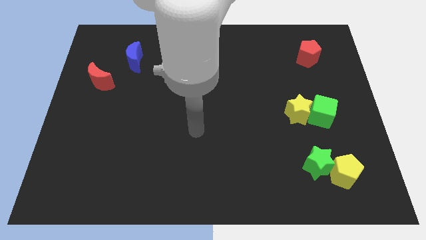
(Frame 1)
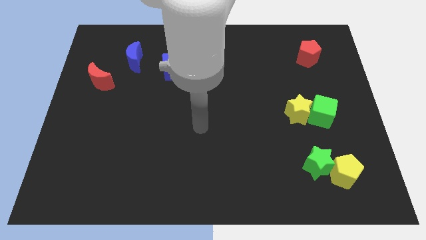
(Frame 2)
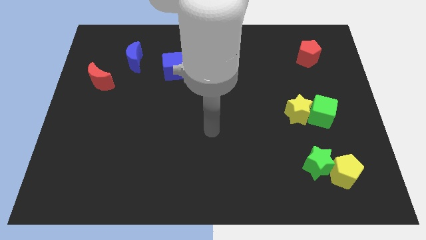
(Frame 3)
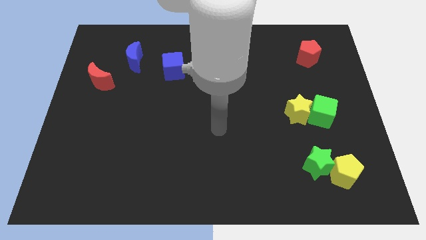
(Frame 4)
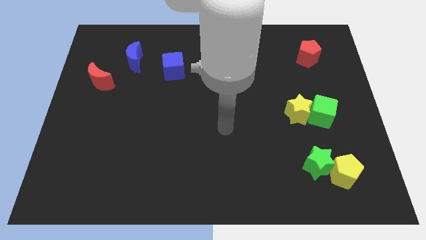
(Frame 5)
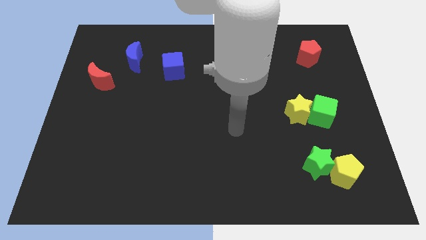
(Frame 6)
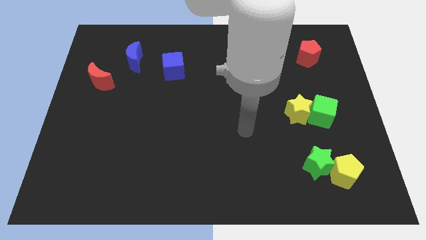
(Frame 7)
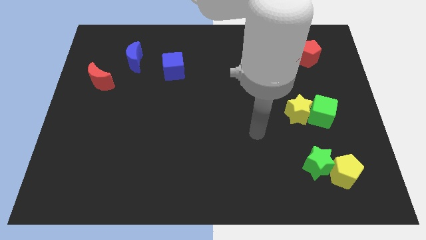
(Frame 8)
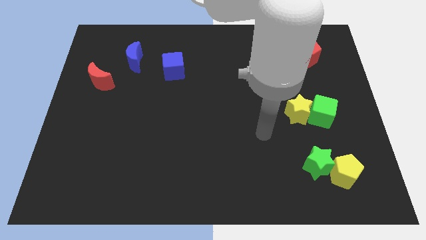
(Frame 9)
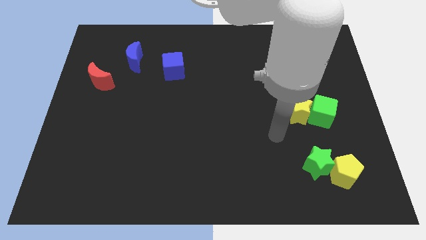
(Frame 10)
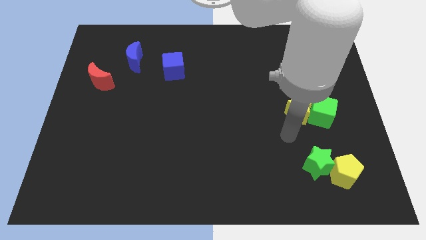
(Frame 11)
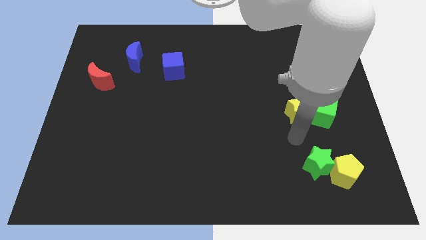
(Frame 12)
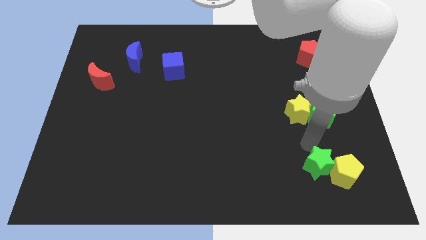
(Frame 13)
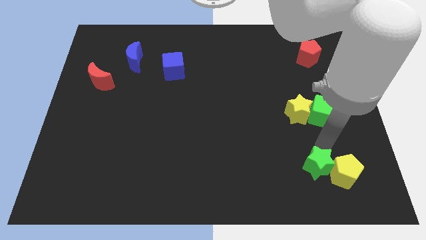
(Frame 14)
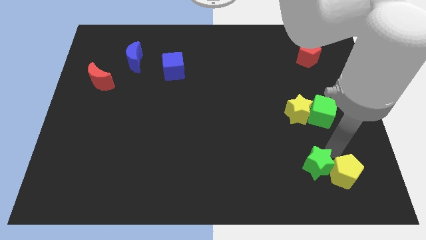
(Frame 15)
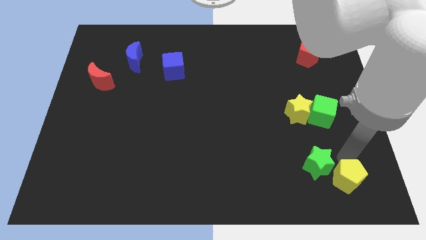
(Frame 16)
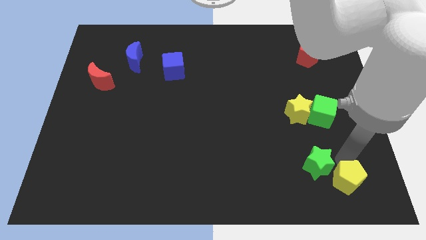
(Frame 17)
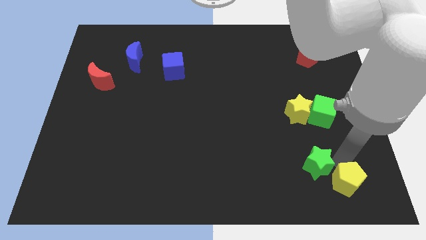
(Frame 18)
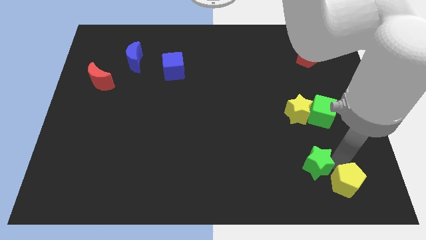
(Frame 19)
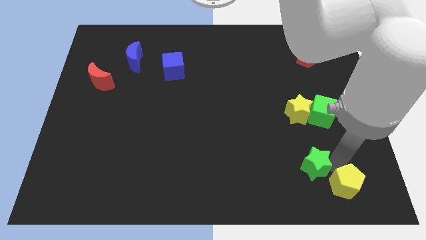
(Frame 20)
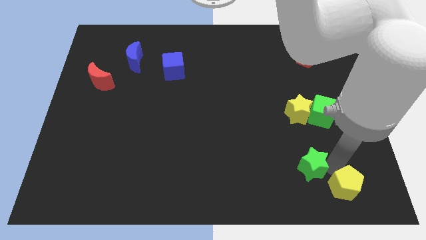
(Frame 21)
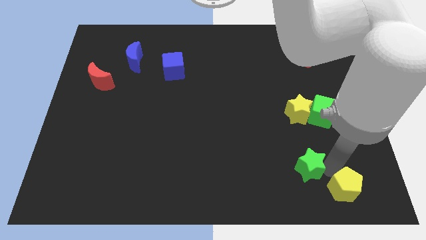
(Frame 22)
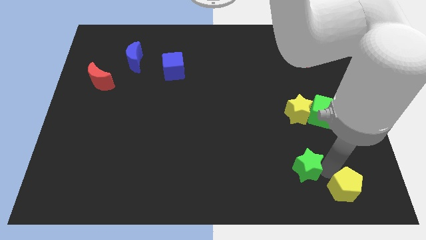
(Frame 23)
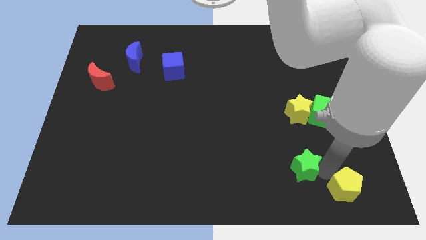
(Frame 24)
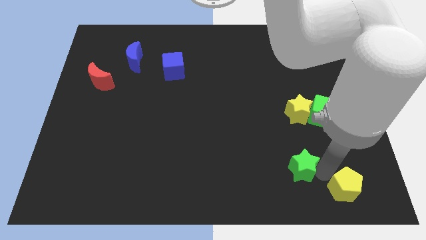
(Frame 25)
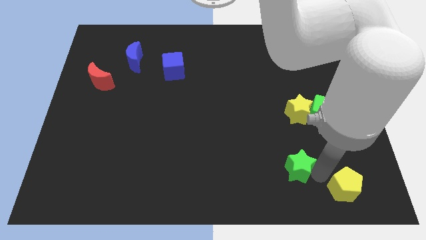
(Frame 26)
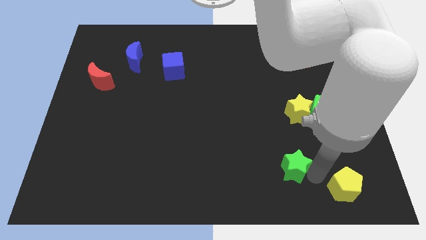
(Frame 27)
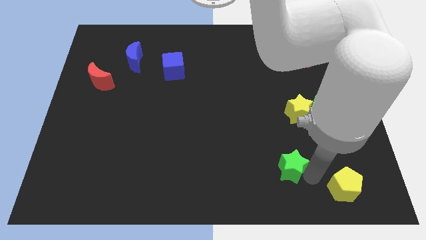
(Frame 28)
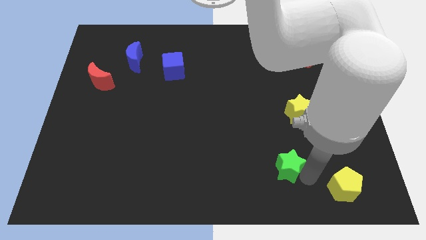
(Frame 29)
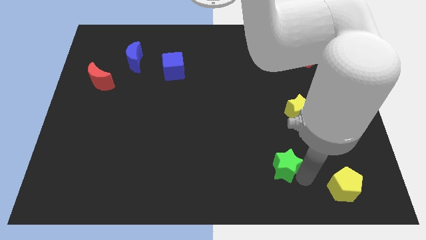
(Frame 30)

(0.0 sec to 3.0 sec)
slightly slide the green star left

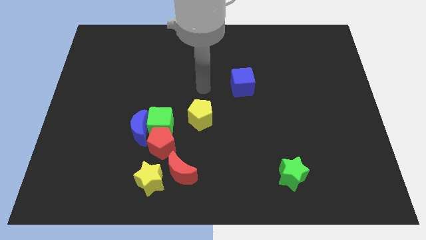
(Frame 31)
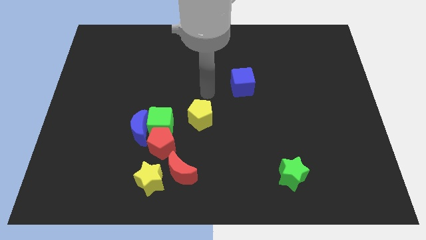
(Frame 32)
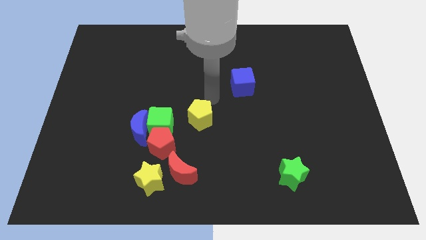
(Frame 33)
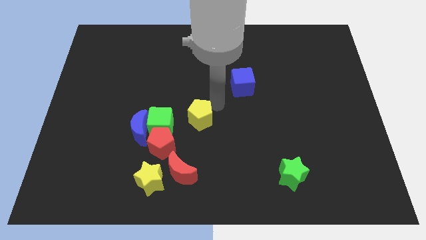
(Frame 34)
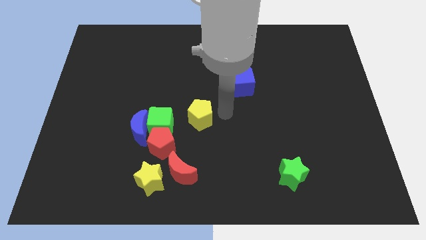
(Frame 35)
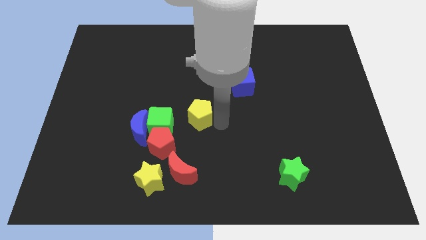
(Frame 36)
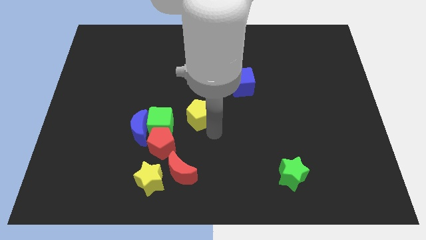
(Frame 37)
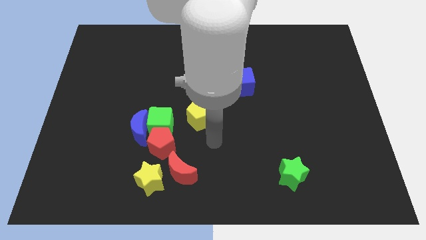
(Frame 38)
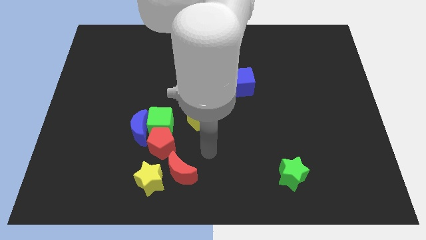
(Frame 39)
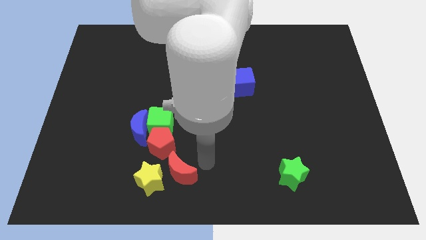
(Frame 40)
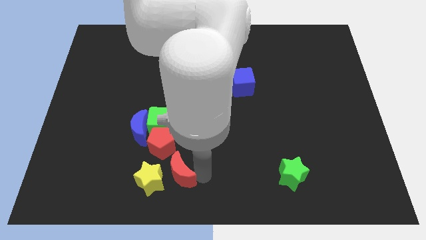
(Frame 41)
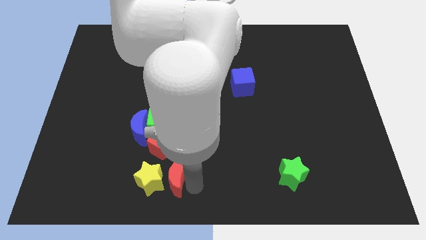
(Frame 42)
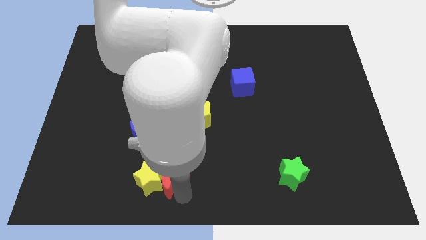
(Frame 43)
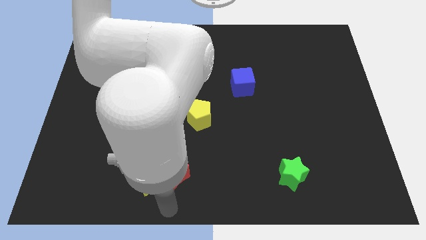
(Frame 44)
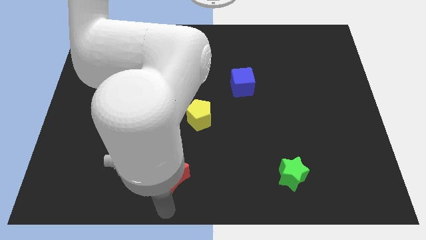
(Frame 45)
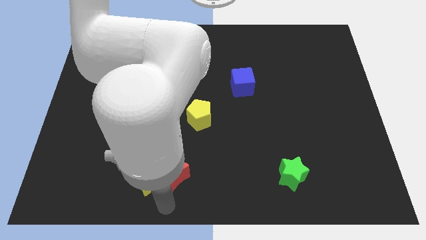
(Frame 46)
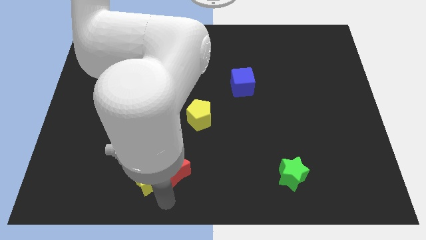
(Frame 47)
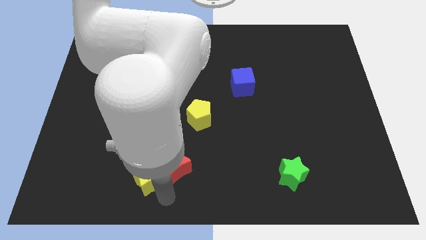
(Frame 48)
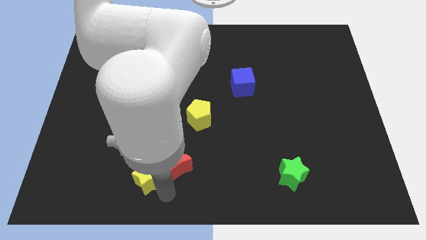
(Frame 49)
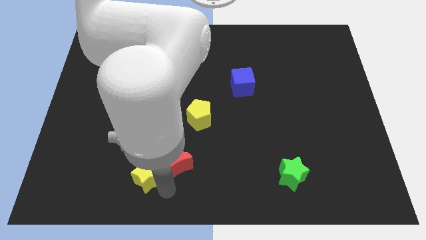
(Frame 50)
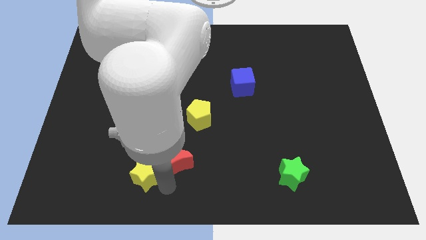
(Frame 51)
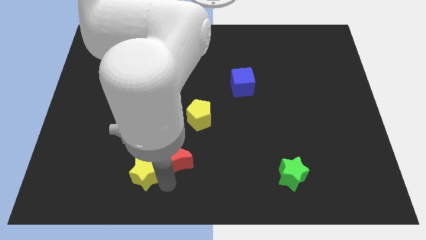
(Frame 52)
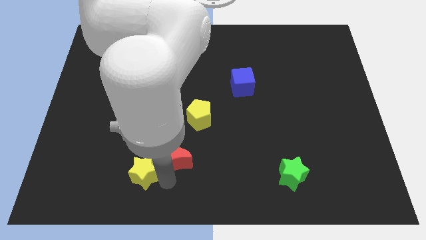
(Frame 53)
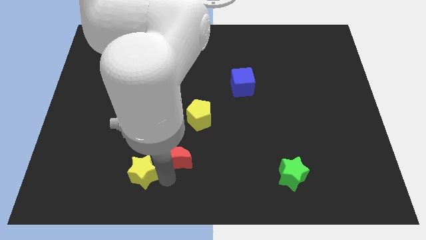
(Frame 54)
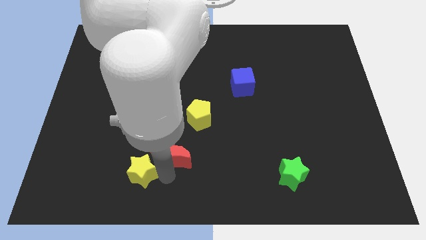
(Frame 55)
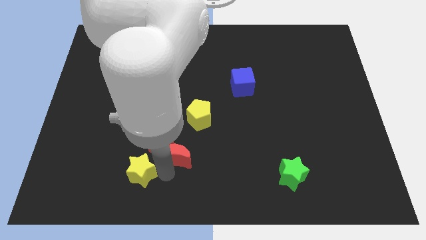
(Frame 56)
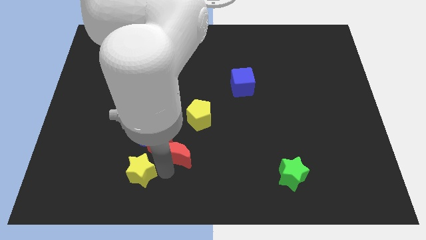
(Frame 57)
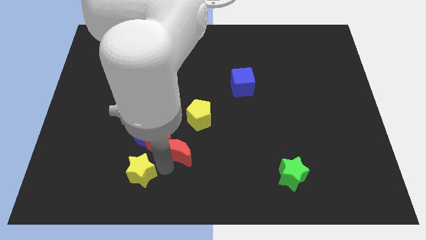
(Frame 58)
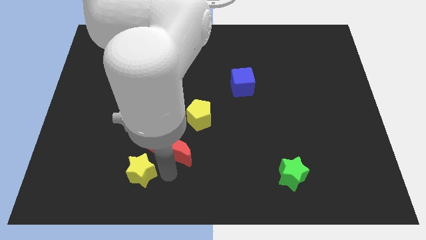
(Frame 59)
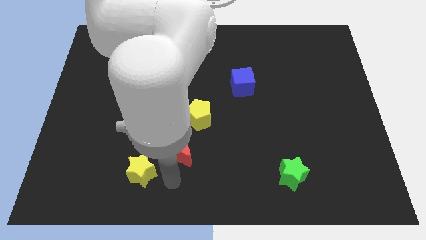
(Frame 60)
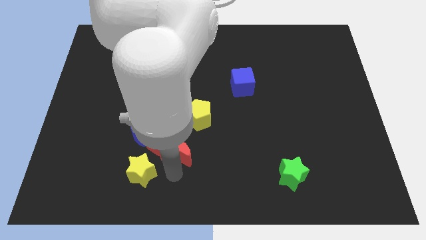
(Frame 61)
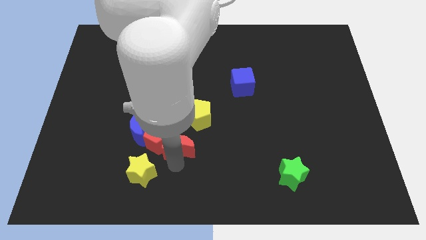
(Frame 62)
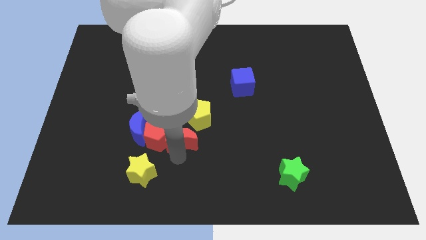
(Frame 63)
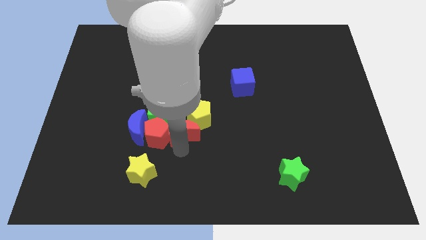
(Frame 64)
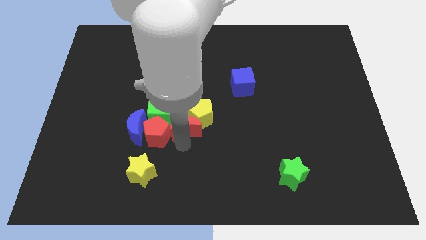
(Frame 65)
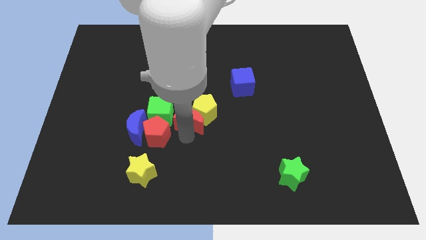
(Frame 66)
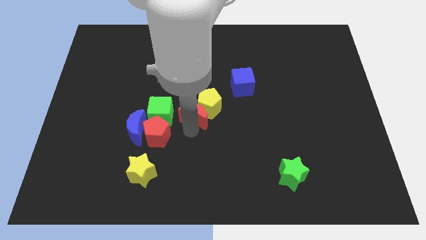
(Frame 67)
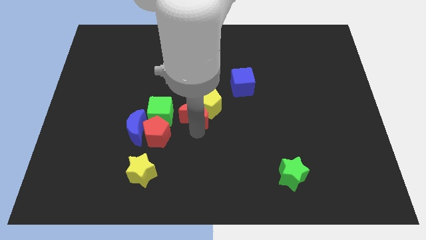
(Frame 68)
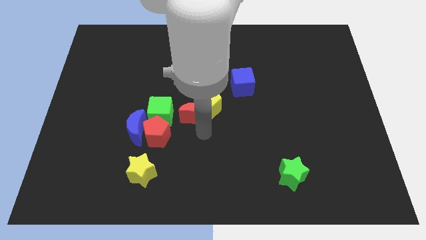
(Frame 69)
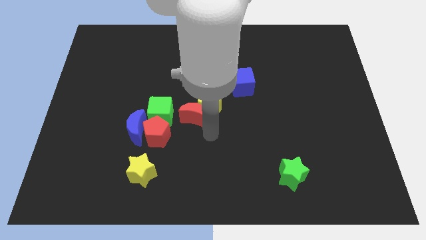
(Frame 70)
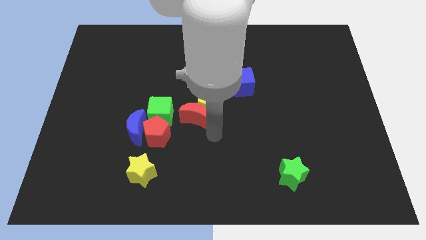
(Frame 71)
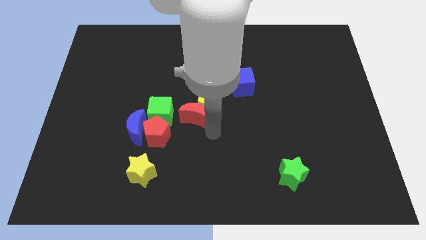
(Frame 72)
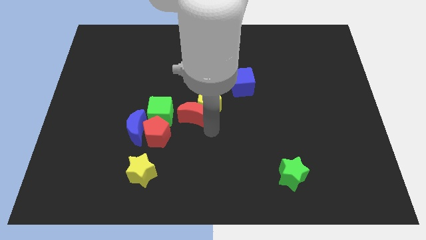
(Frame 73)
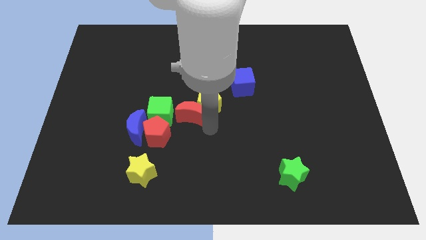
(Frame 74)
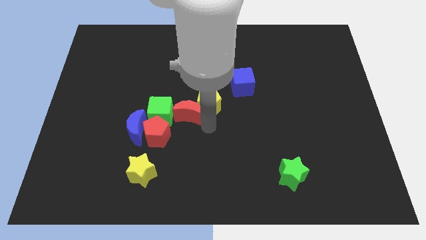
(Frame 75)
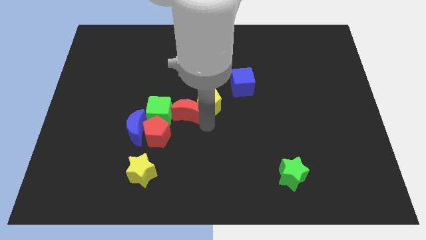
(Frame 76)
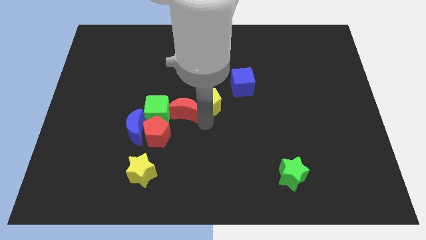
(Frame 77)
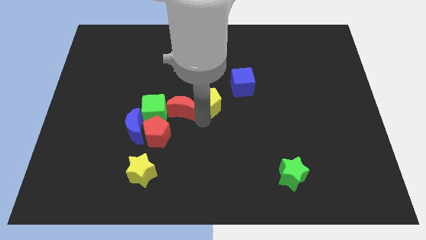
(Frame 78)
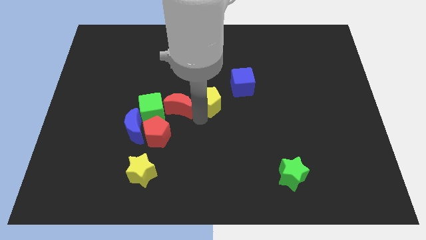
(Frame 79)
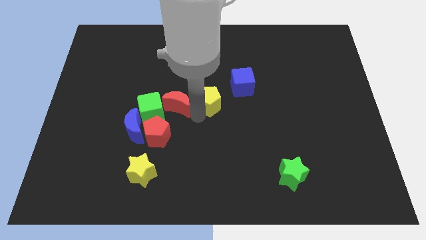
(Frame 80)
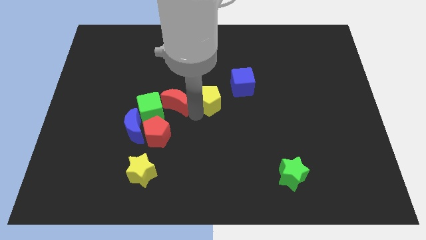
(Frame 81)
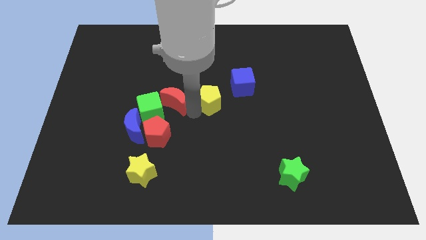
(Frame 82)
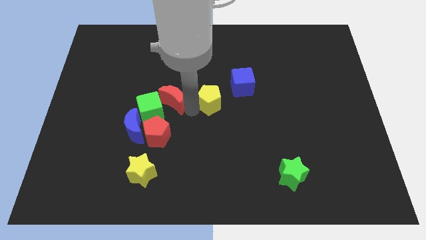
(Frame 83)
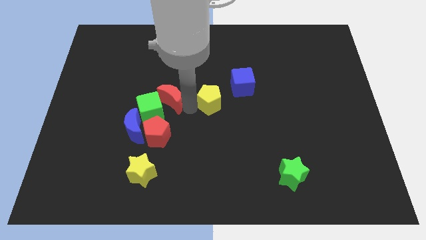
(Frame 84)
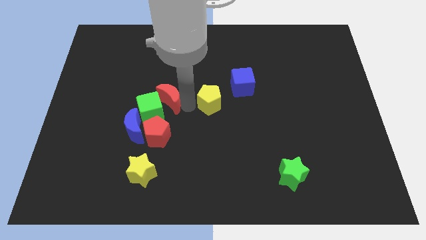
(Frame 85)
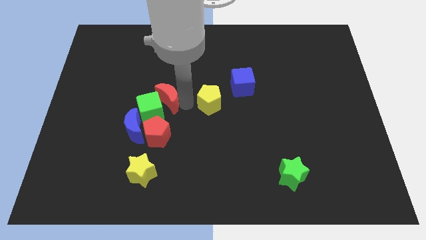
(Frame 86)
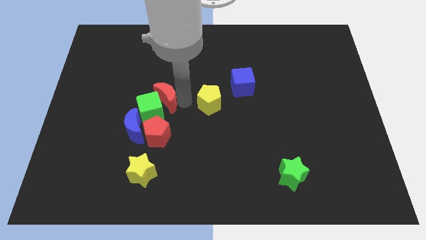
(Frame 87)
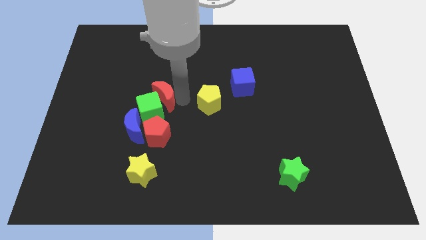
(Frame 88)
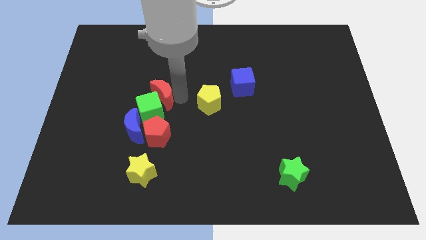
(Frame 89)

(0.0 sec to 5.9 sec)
move the red moon up
